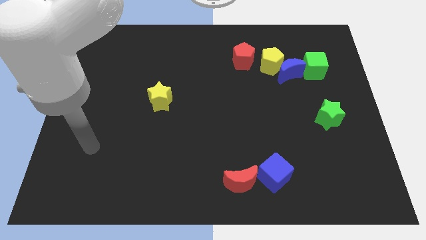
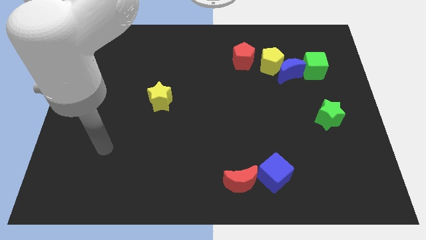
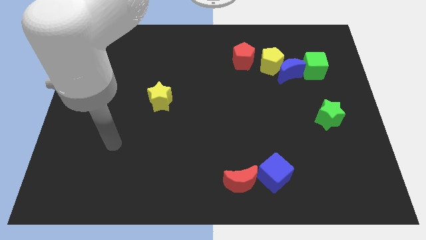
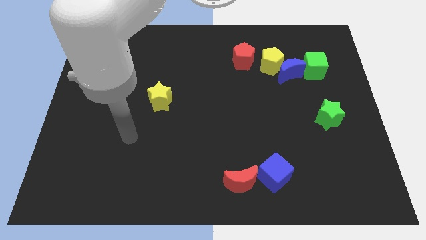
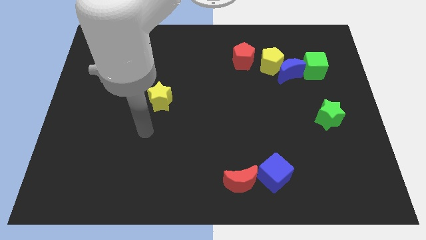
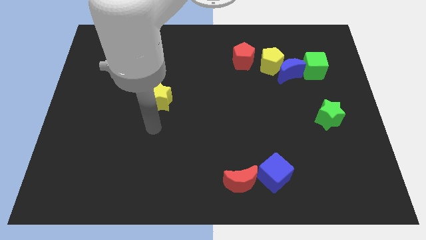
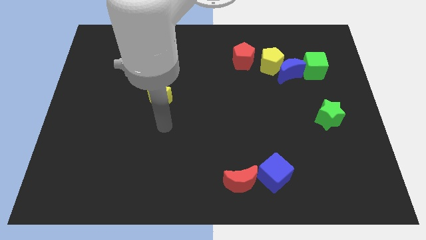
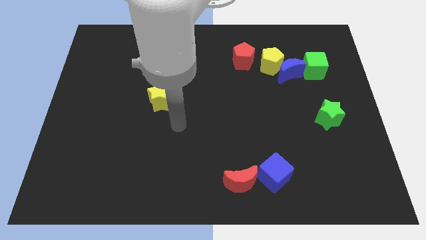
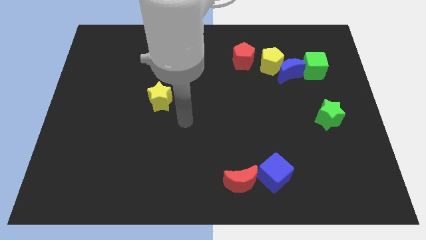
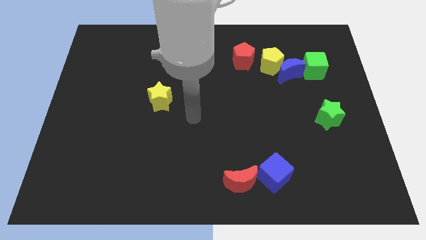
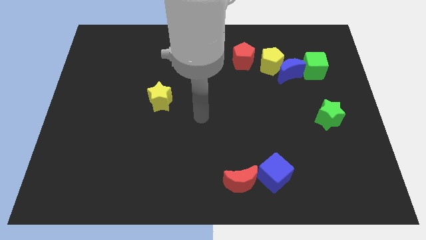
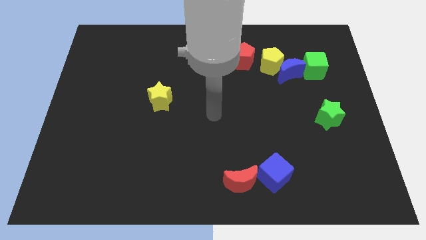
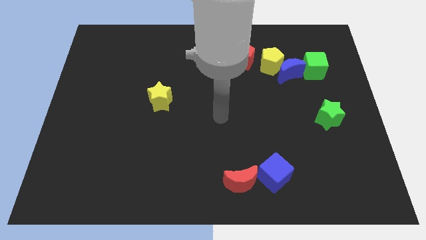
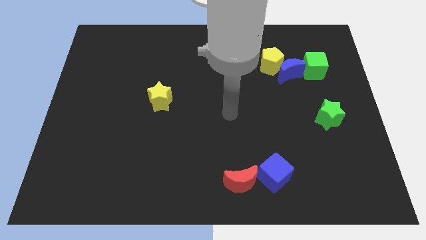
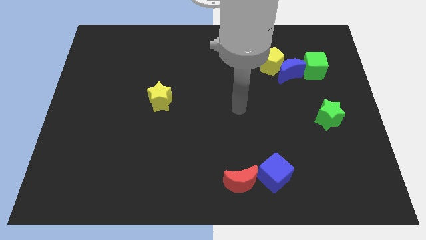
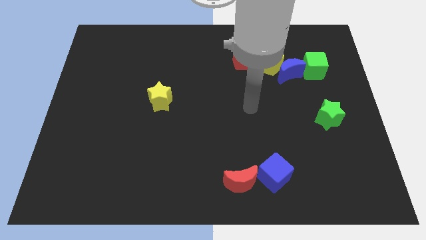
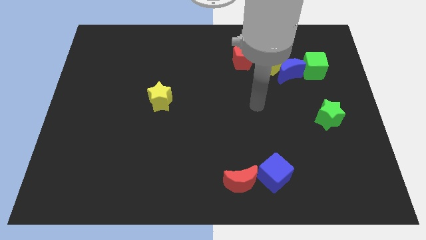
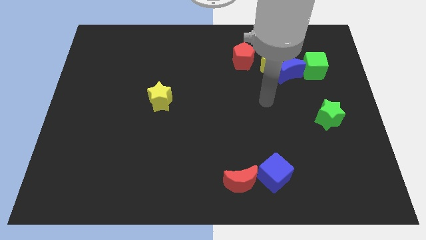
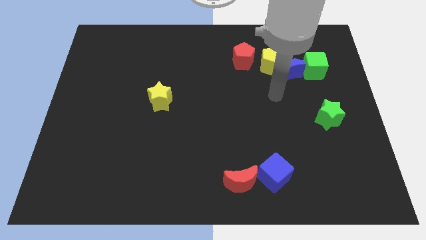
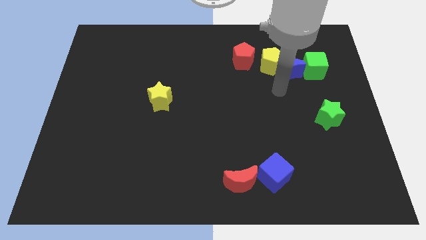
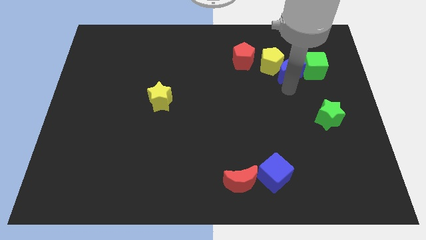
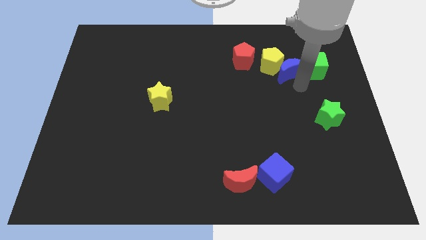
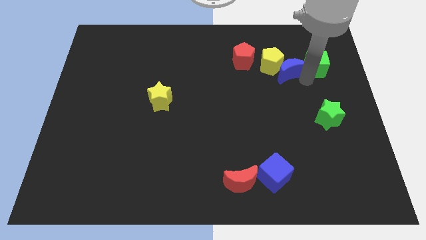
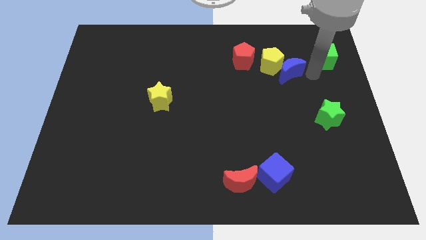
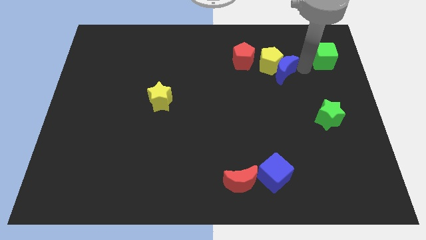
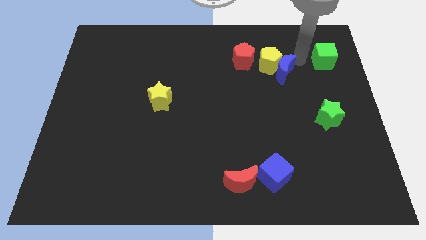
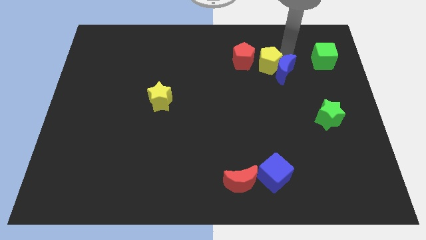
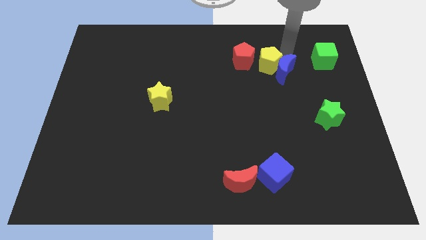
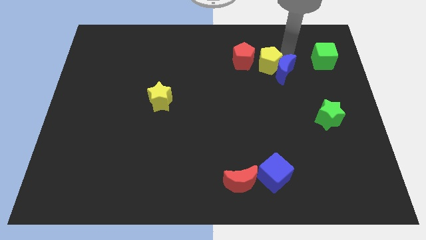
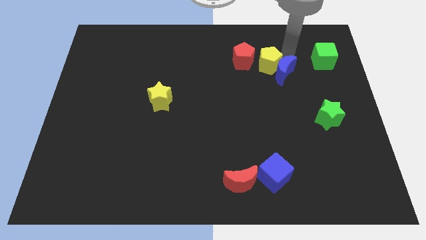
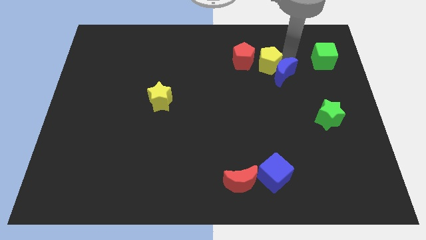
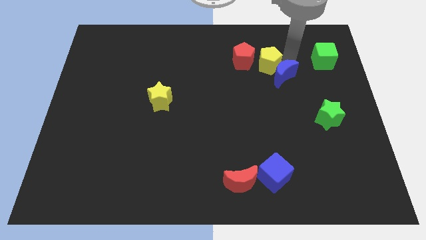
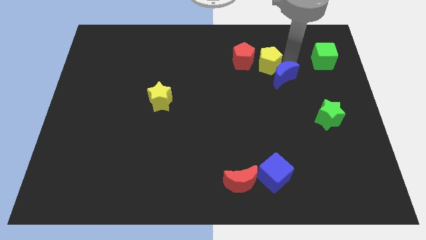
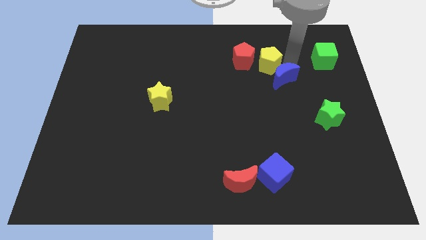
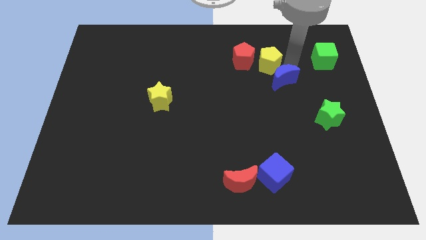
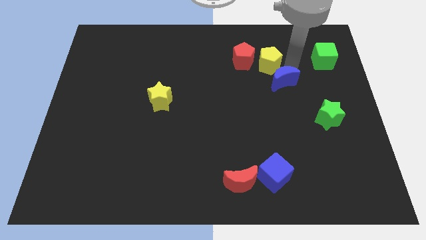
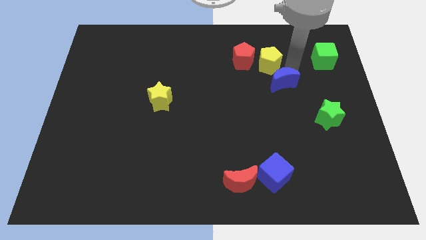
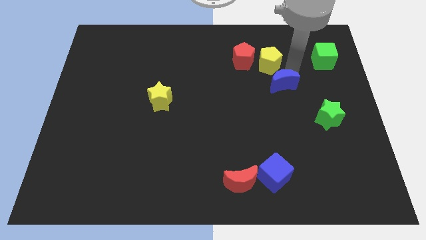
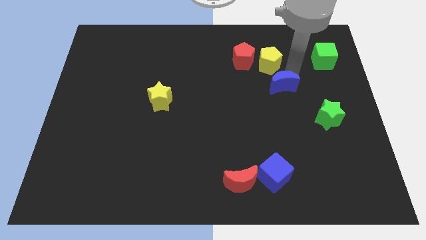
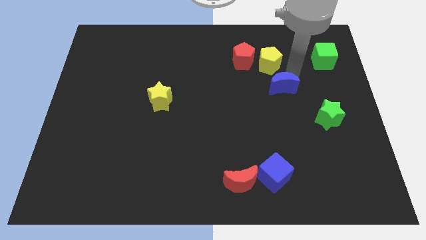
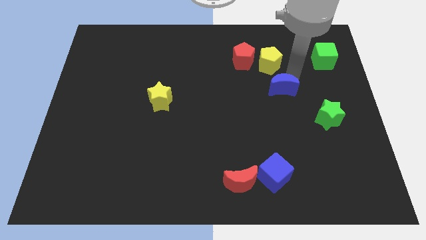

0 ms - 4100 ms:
move the blue moon away from the yellow pentagon and green cube

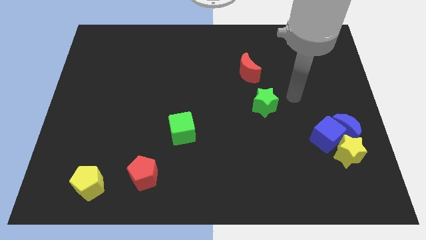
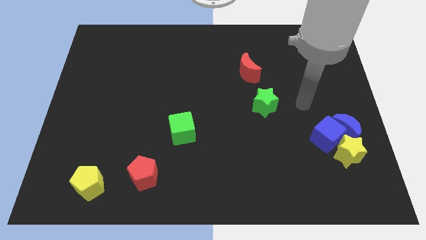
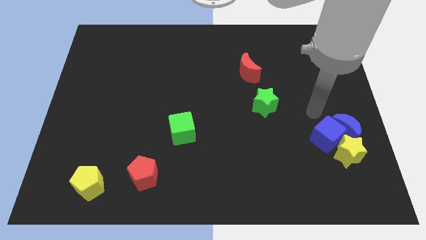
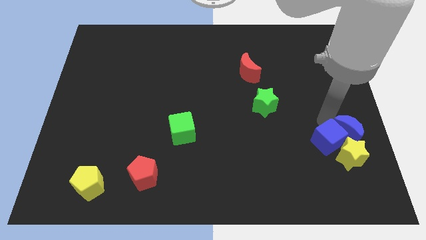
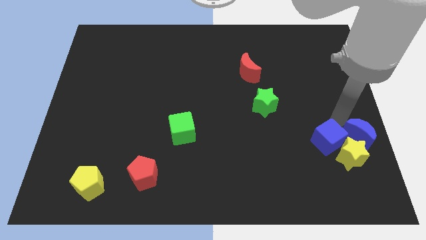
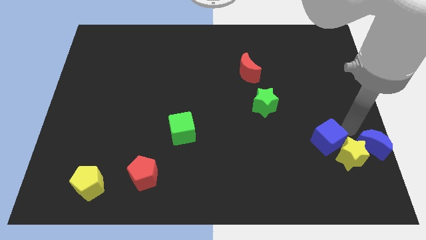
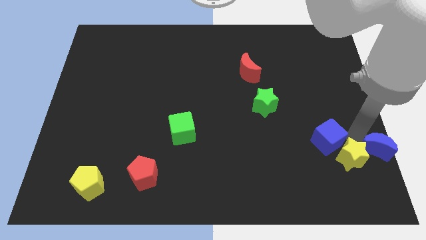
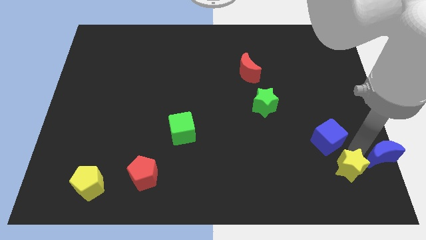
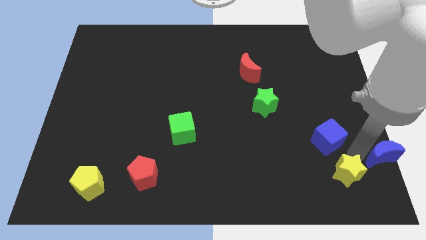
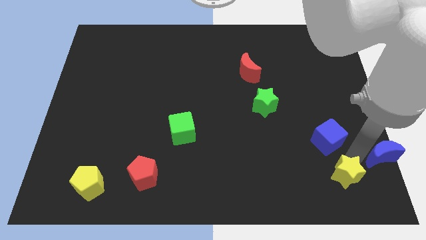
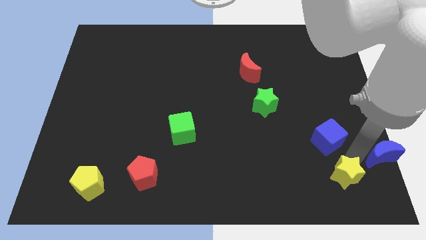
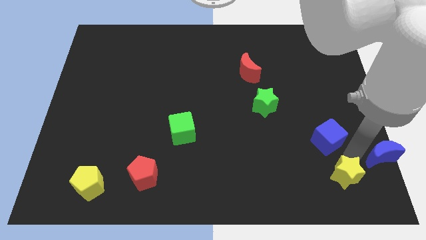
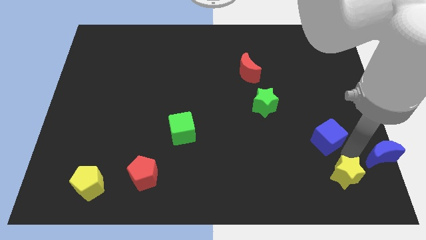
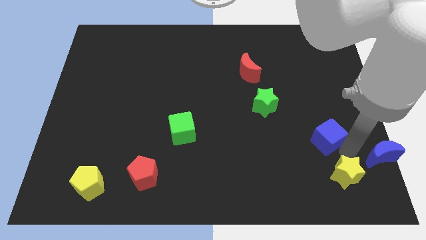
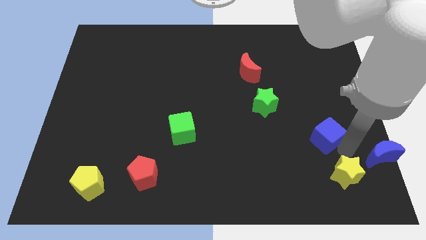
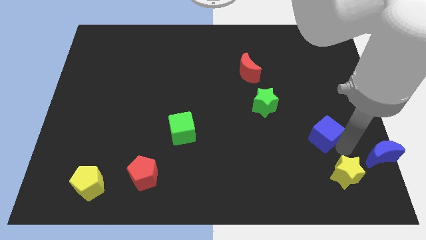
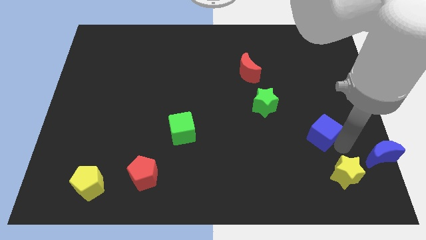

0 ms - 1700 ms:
separate the blue cube from the blue moon and yellow star

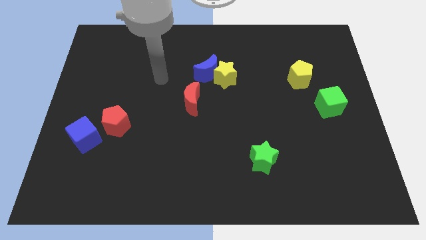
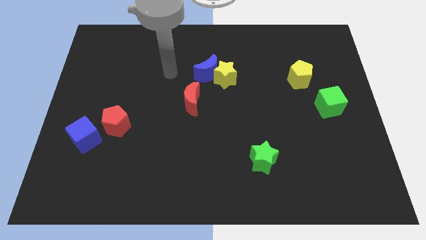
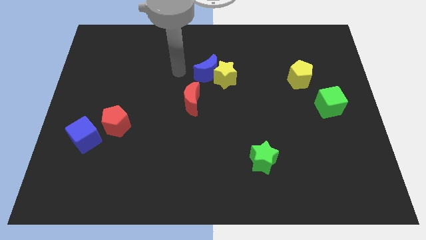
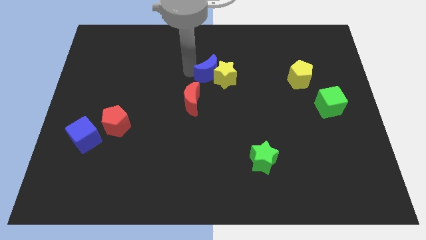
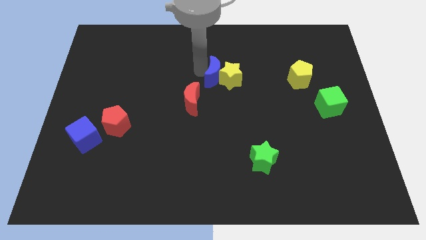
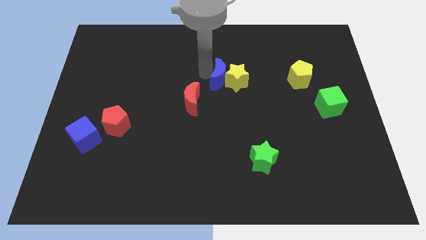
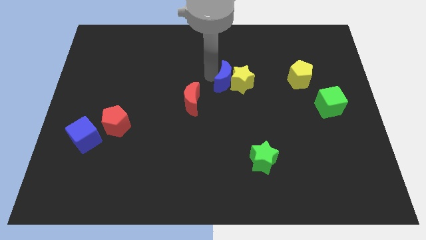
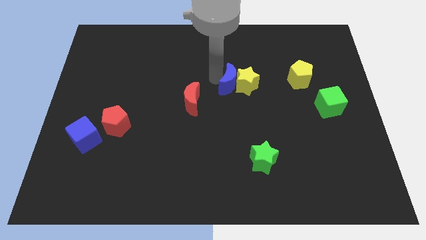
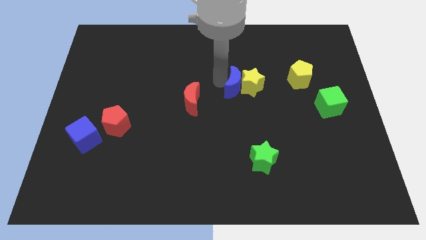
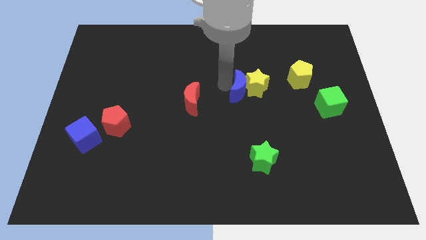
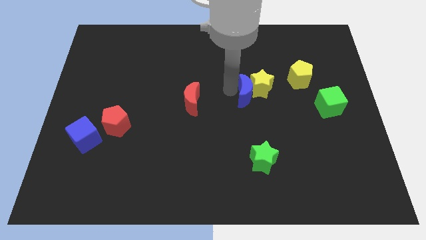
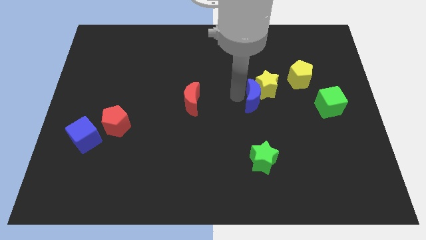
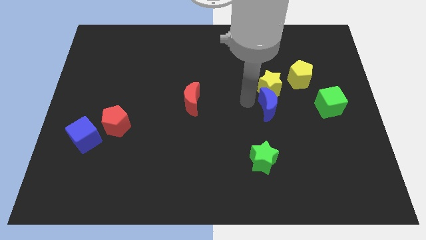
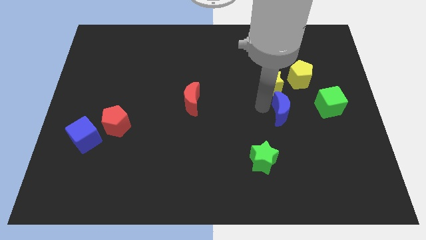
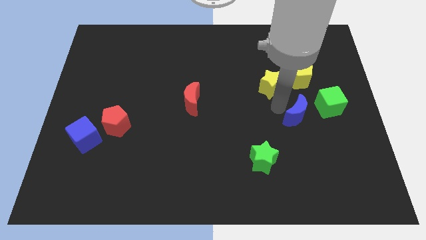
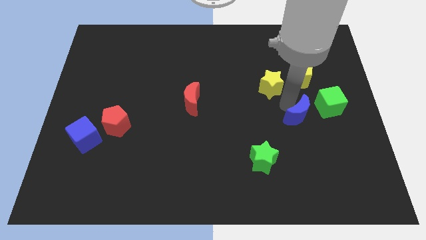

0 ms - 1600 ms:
move the yellow star away from the blue moon

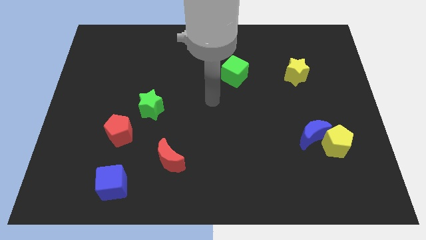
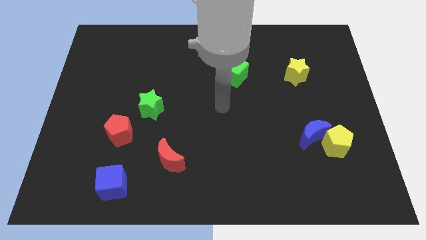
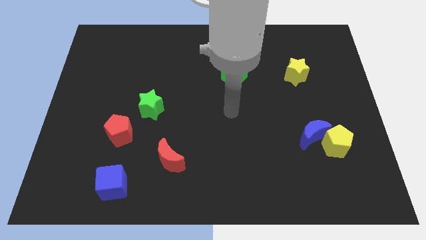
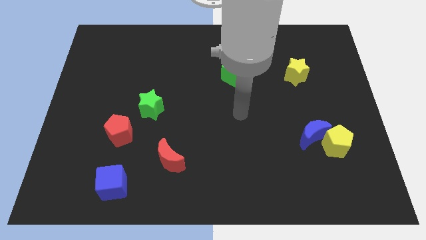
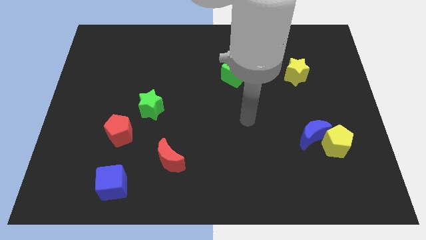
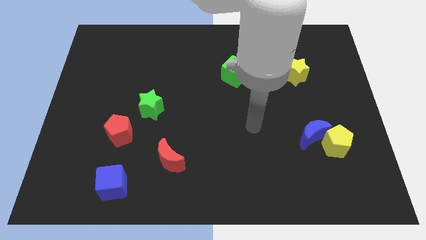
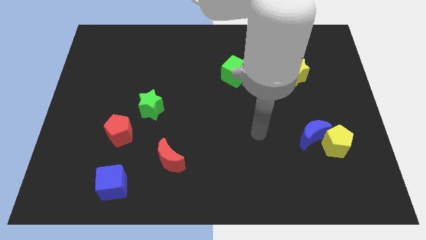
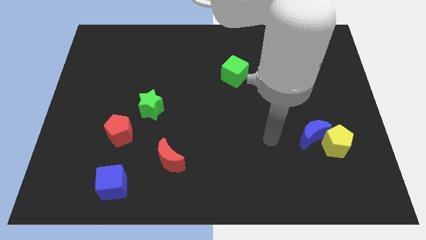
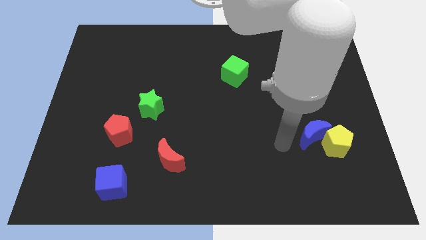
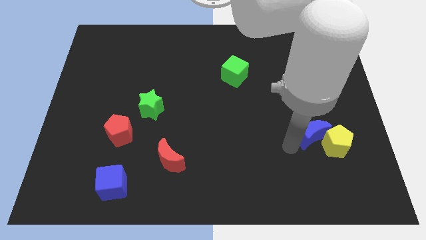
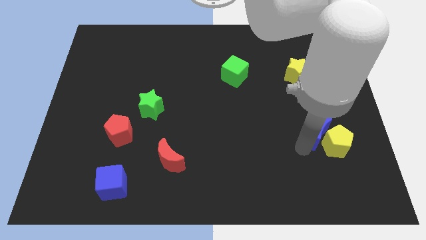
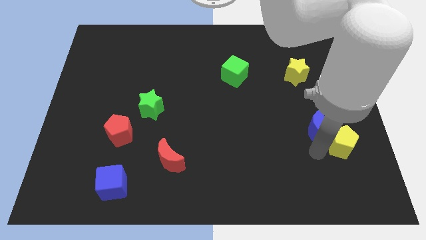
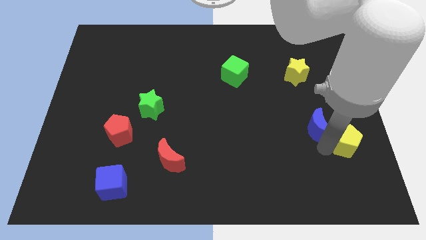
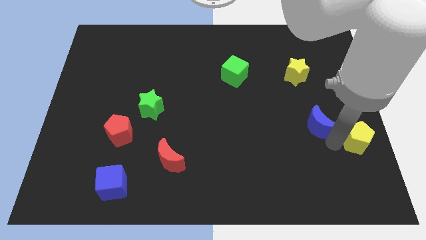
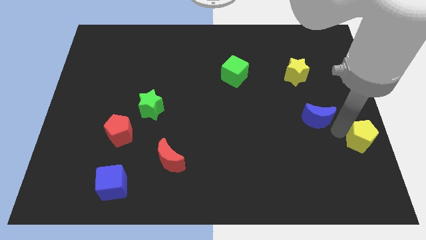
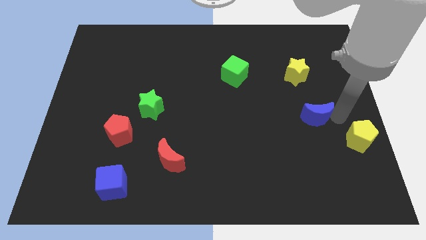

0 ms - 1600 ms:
pull the blue moon apart from the yellow pentagon

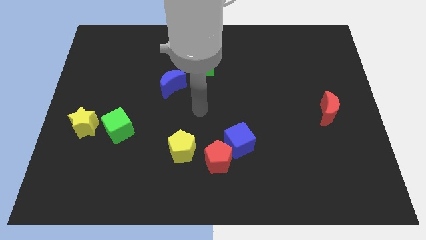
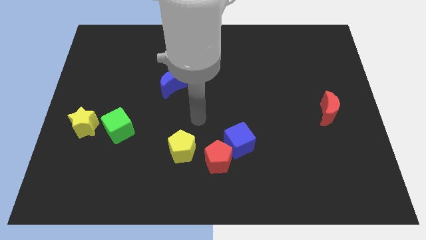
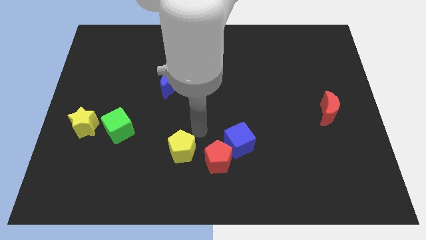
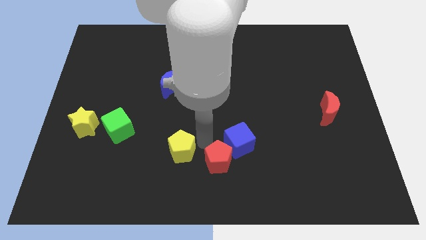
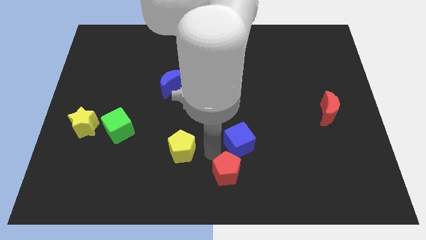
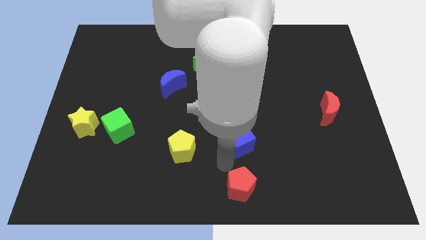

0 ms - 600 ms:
separate the blue cube from the red pentagon
